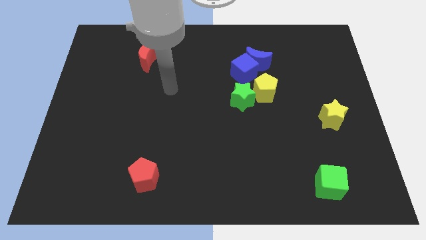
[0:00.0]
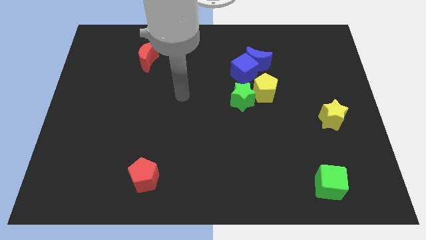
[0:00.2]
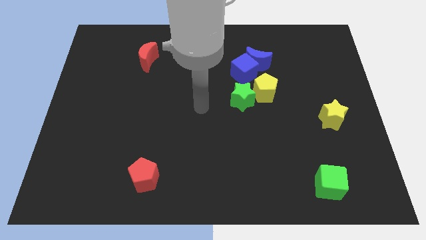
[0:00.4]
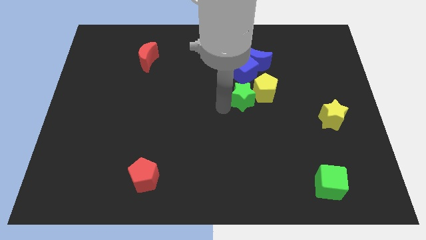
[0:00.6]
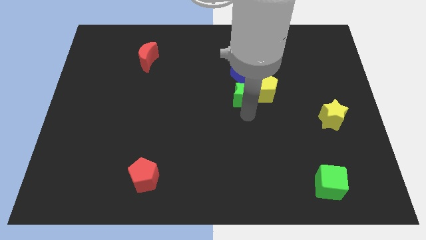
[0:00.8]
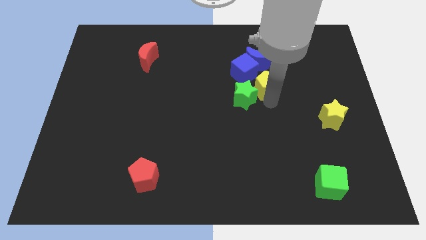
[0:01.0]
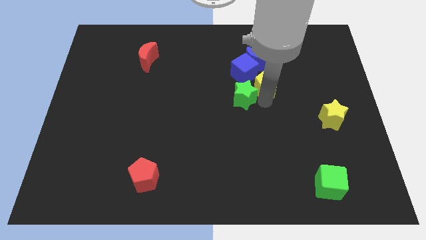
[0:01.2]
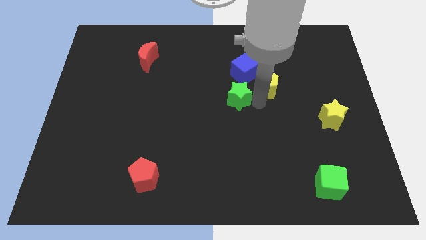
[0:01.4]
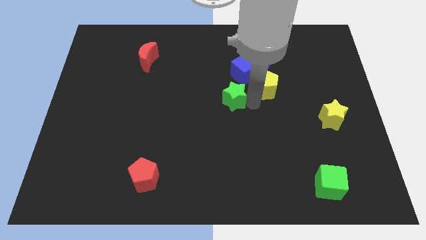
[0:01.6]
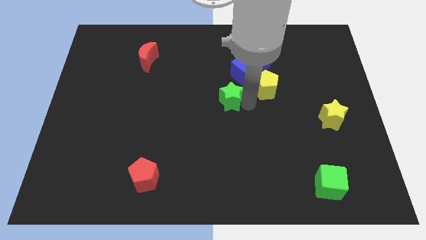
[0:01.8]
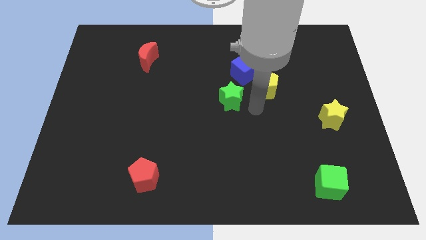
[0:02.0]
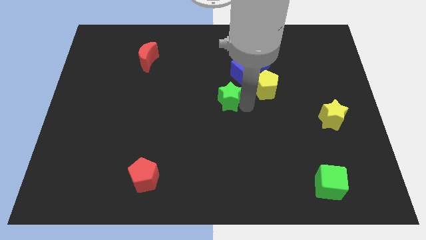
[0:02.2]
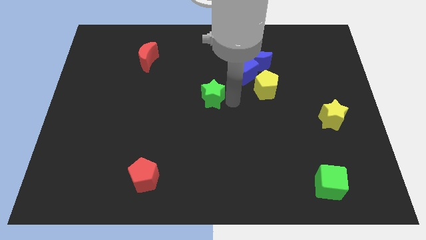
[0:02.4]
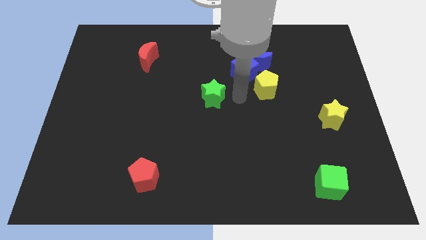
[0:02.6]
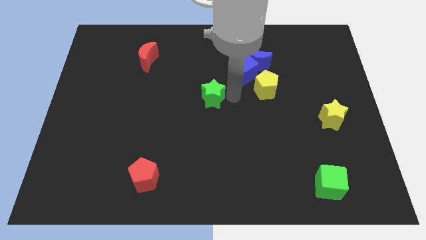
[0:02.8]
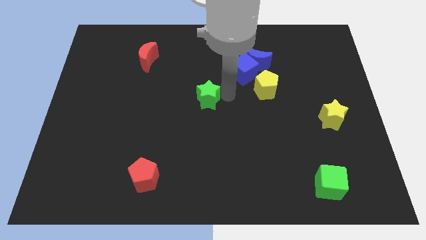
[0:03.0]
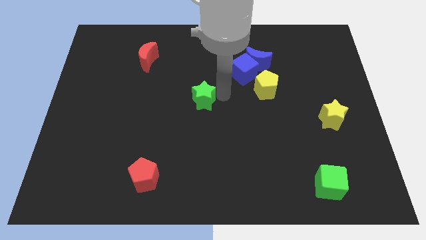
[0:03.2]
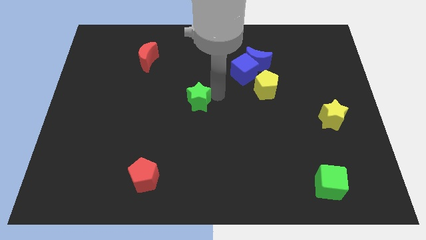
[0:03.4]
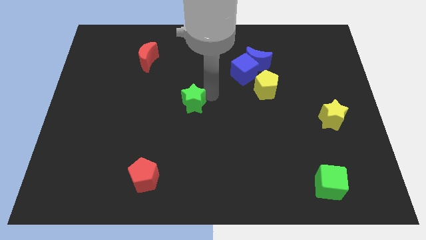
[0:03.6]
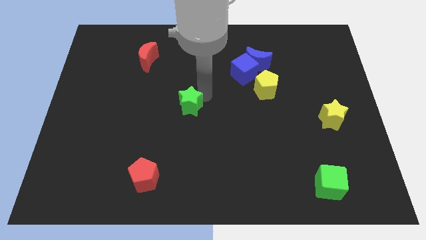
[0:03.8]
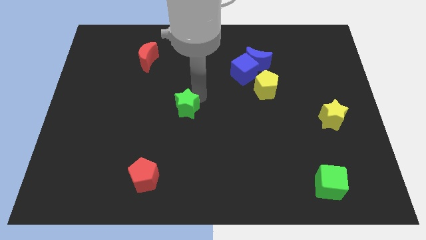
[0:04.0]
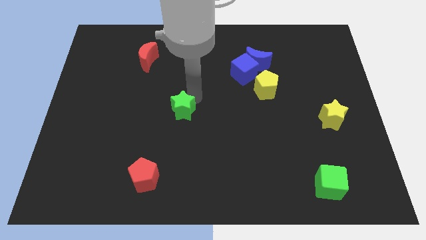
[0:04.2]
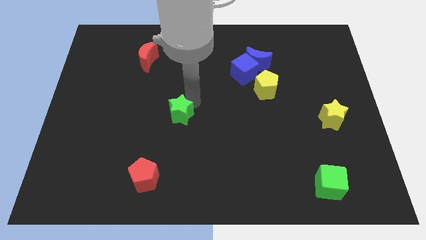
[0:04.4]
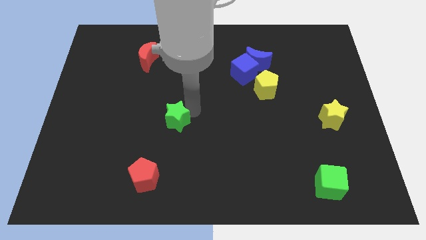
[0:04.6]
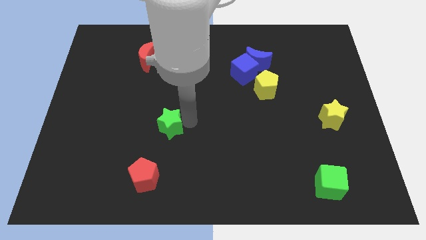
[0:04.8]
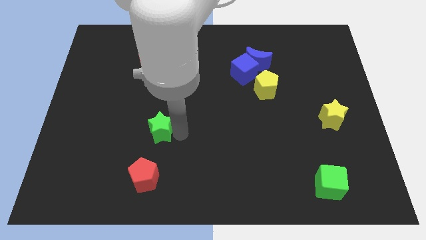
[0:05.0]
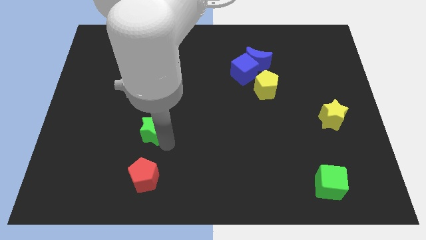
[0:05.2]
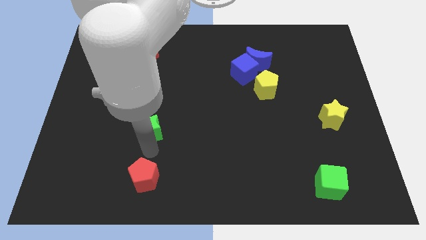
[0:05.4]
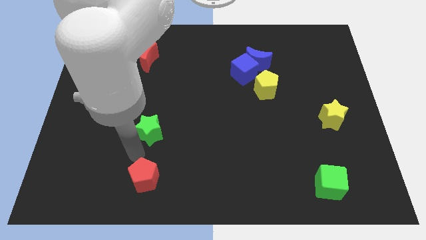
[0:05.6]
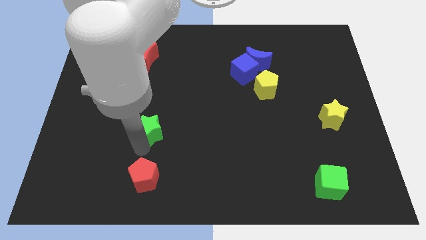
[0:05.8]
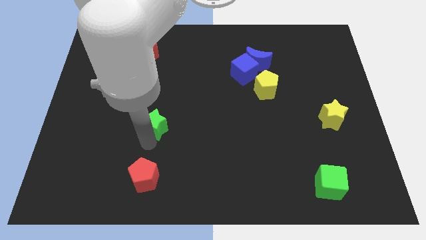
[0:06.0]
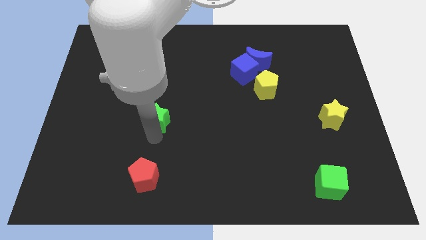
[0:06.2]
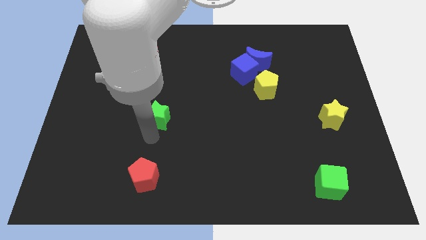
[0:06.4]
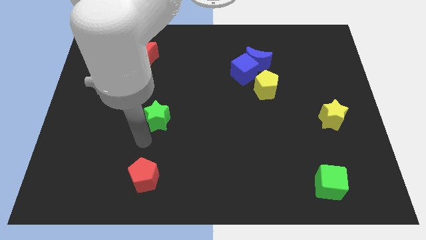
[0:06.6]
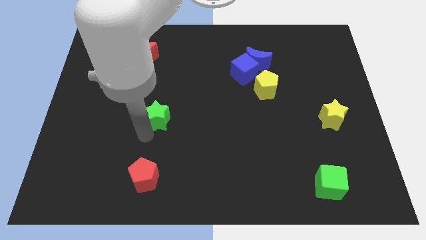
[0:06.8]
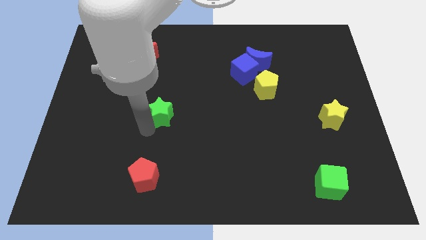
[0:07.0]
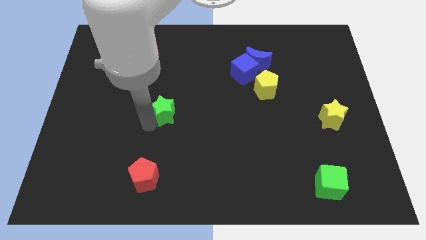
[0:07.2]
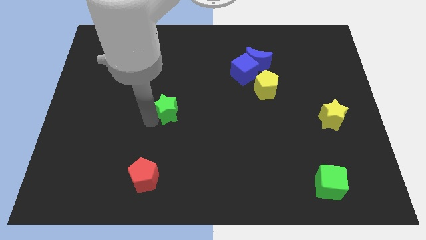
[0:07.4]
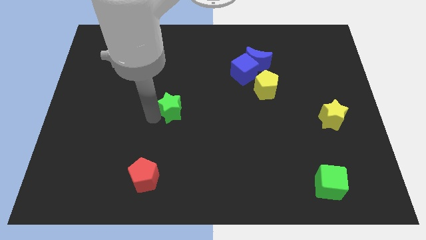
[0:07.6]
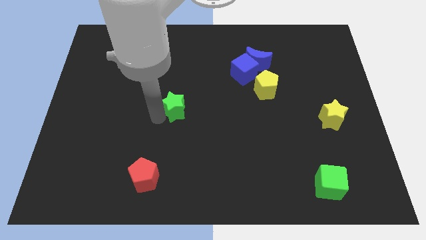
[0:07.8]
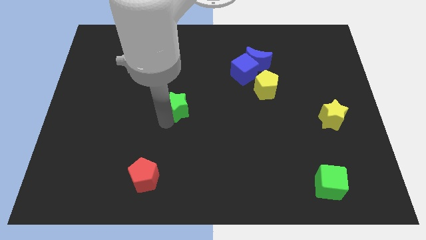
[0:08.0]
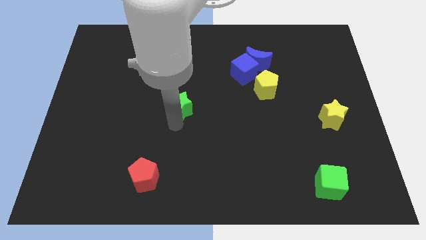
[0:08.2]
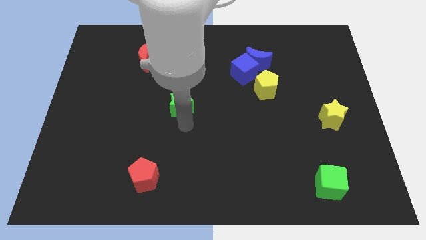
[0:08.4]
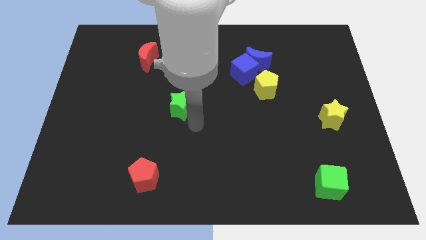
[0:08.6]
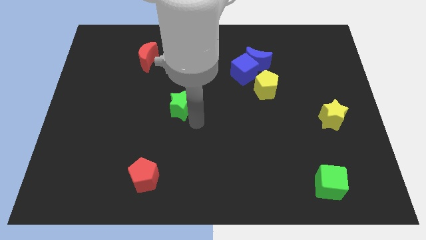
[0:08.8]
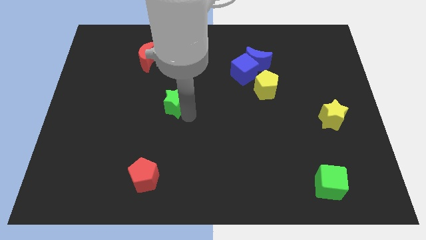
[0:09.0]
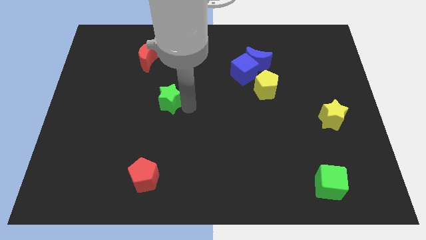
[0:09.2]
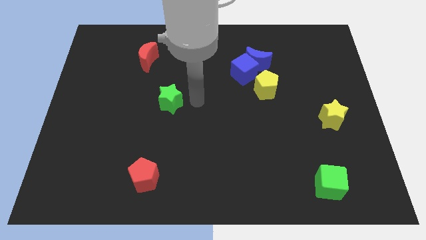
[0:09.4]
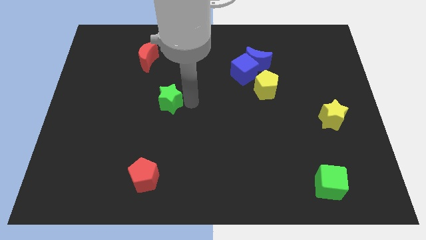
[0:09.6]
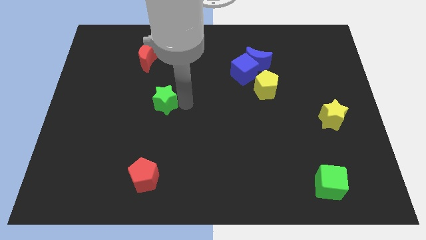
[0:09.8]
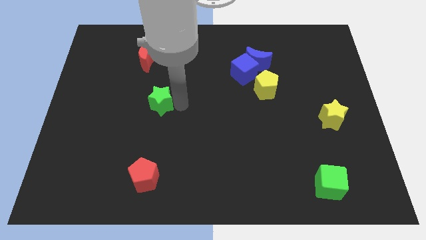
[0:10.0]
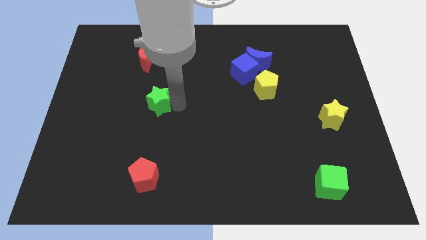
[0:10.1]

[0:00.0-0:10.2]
move the green star to the left

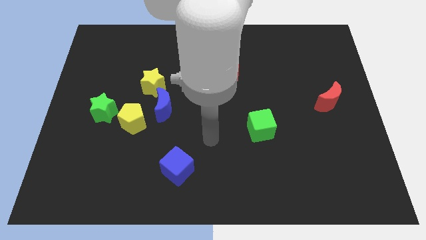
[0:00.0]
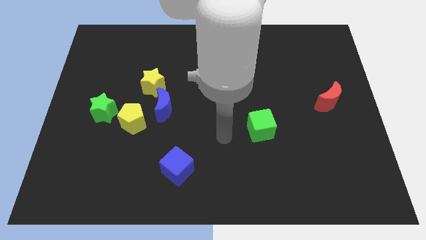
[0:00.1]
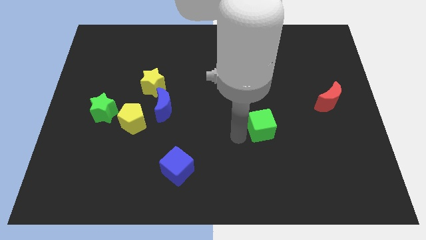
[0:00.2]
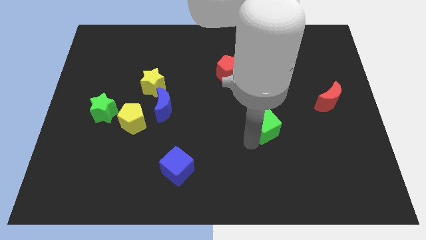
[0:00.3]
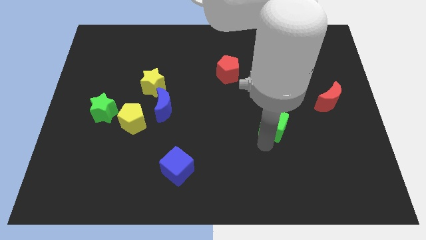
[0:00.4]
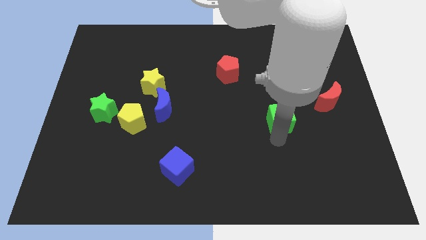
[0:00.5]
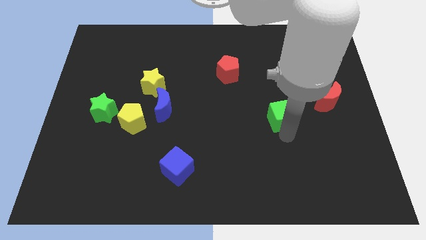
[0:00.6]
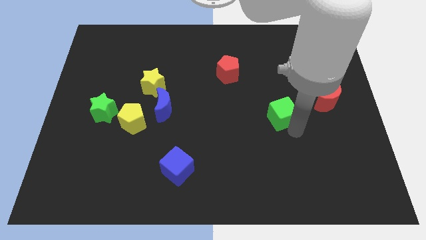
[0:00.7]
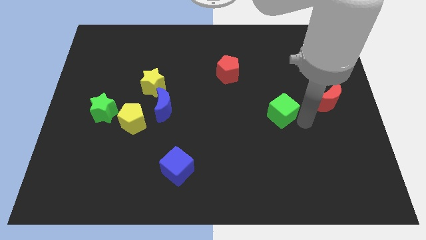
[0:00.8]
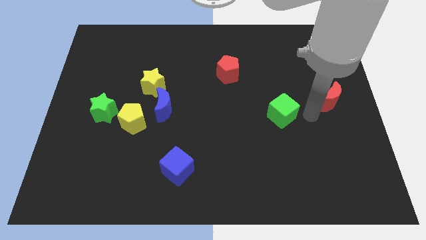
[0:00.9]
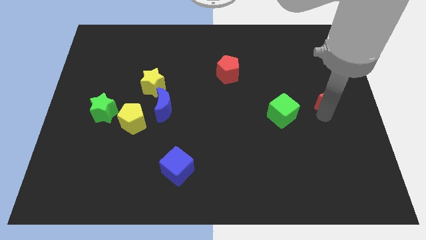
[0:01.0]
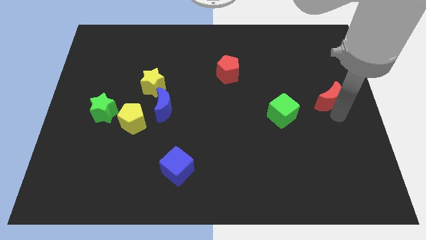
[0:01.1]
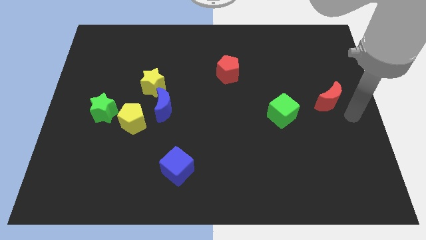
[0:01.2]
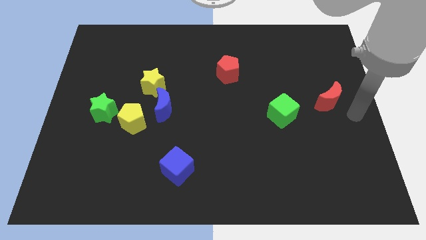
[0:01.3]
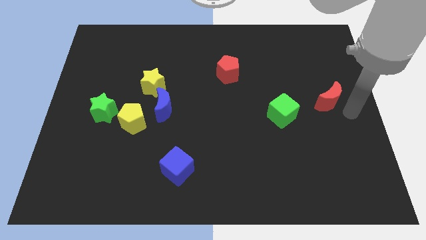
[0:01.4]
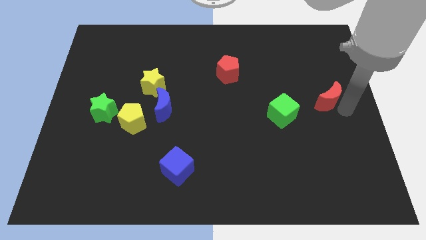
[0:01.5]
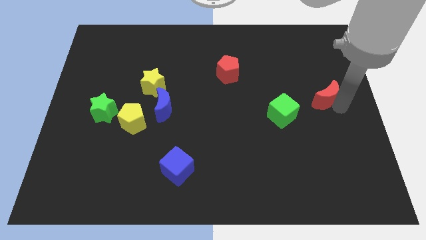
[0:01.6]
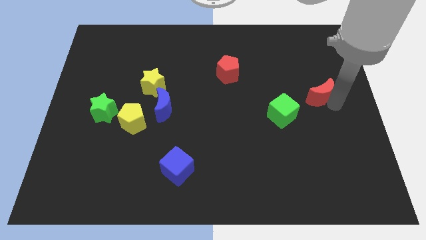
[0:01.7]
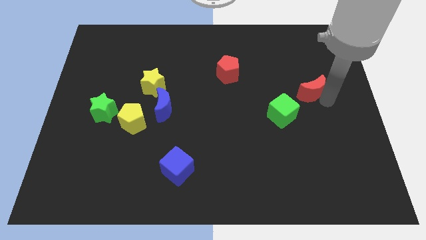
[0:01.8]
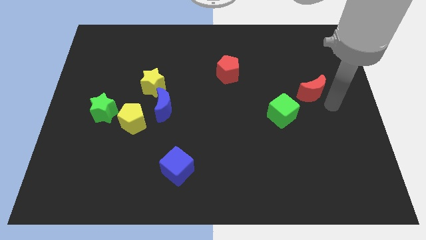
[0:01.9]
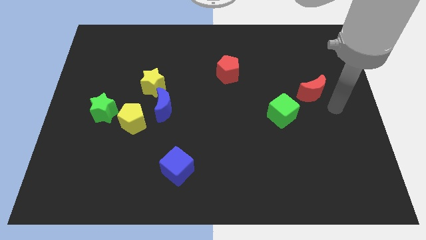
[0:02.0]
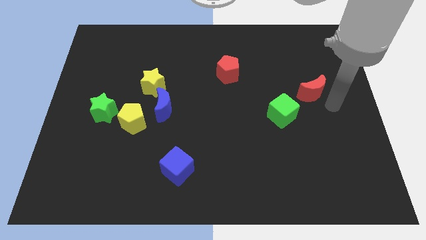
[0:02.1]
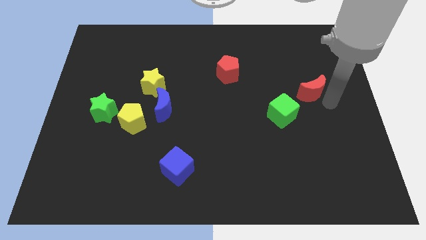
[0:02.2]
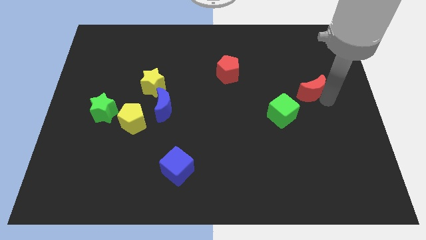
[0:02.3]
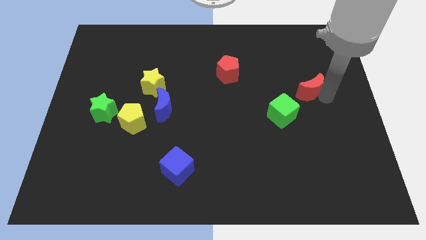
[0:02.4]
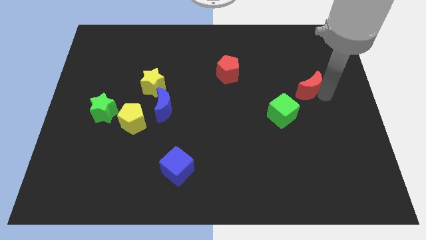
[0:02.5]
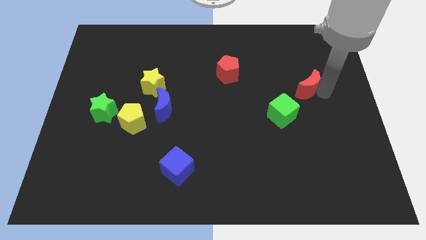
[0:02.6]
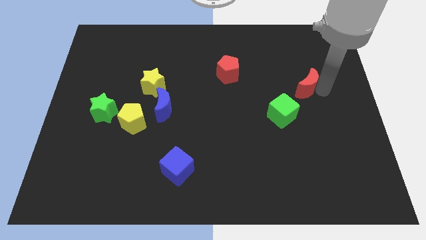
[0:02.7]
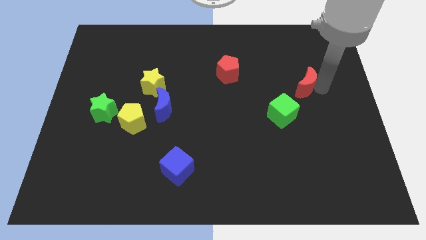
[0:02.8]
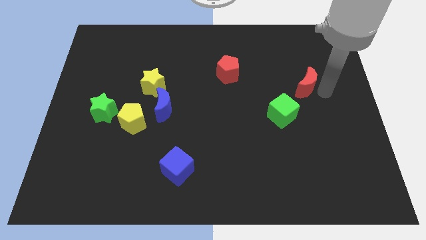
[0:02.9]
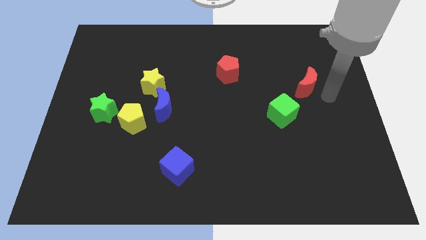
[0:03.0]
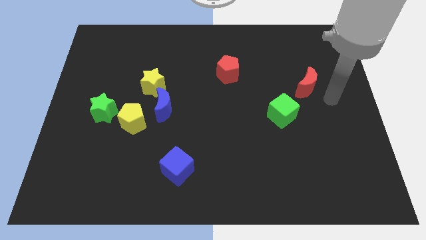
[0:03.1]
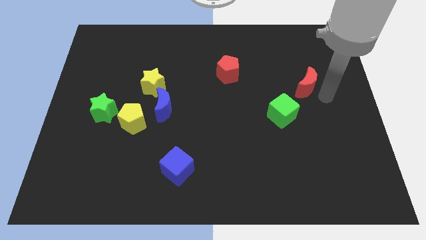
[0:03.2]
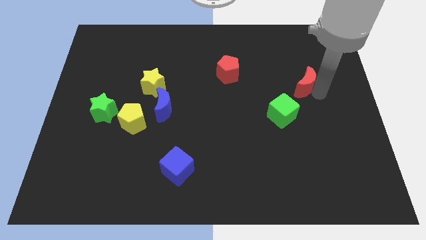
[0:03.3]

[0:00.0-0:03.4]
move the red moon slightly diagonally up and left
